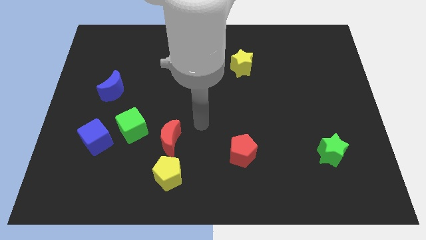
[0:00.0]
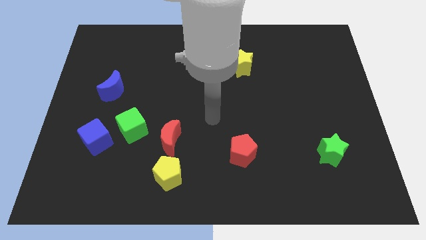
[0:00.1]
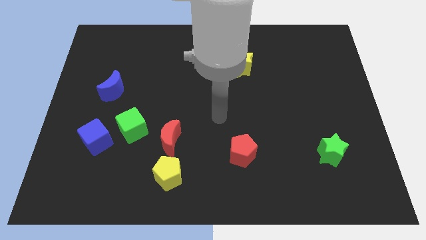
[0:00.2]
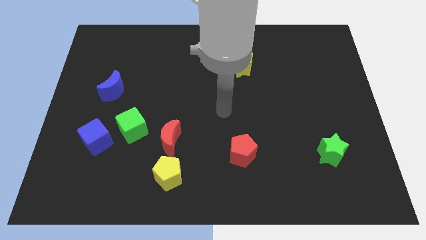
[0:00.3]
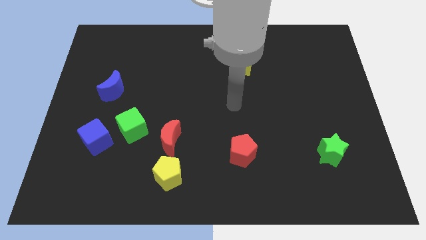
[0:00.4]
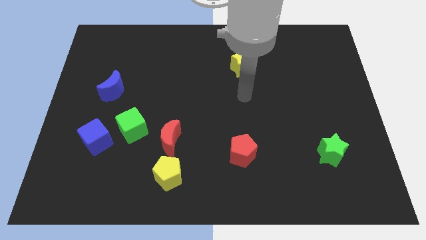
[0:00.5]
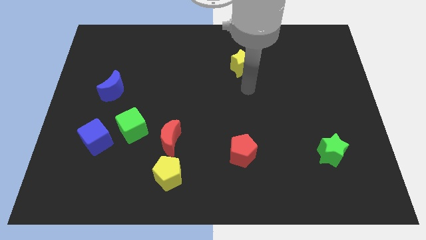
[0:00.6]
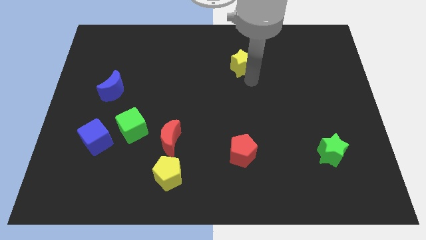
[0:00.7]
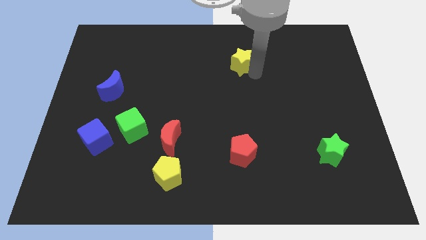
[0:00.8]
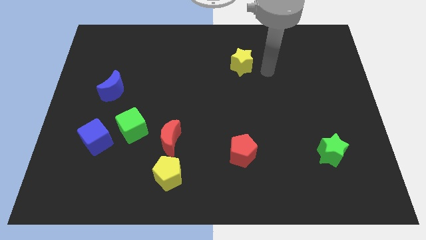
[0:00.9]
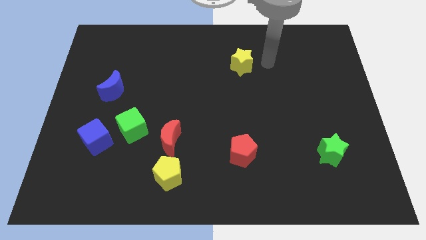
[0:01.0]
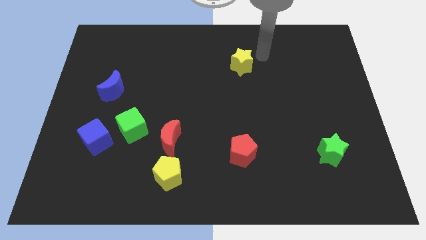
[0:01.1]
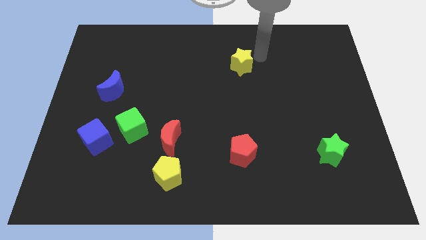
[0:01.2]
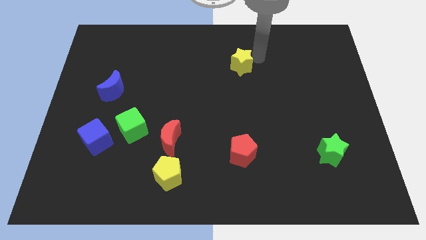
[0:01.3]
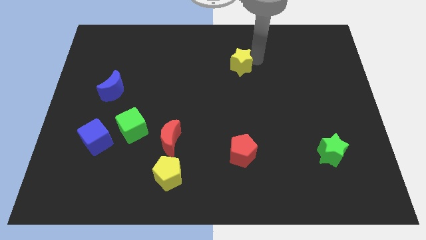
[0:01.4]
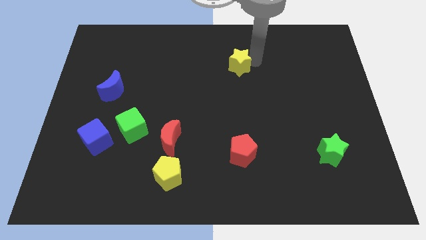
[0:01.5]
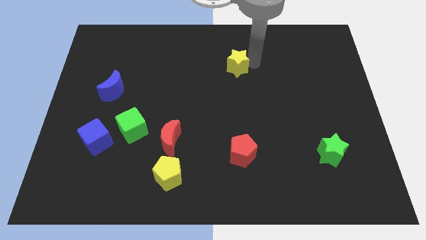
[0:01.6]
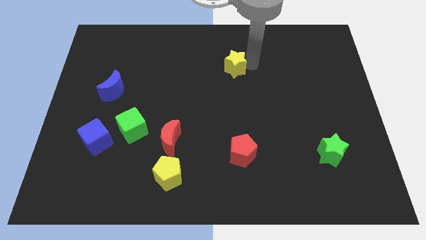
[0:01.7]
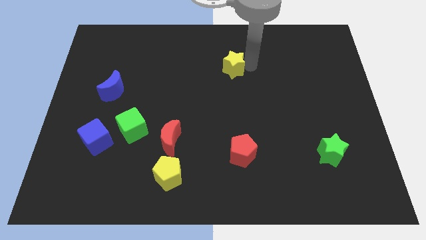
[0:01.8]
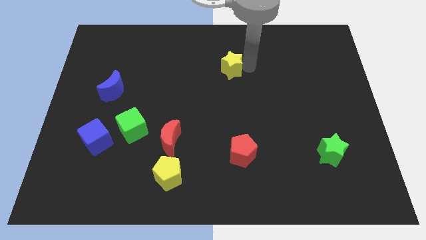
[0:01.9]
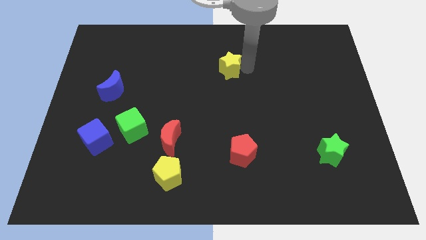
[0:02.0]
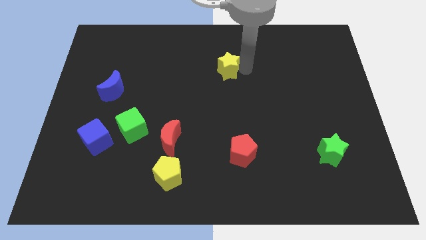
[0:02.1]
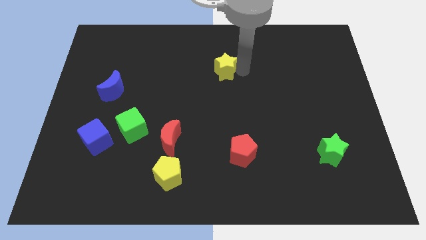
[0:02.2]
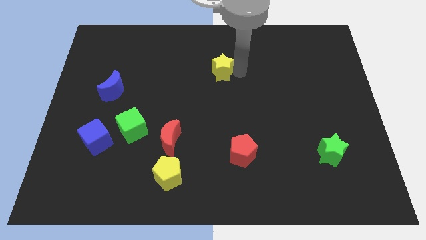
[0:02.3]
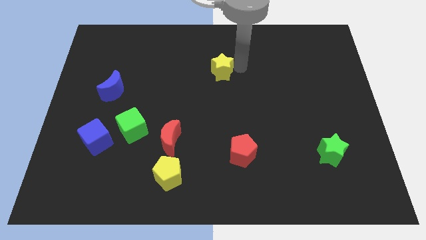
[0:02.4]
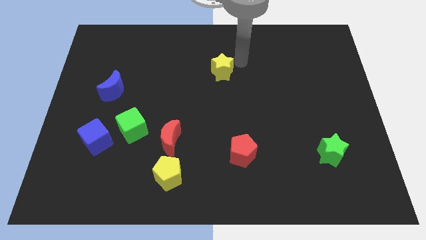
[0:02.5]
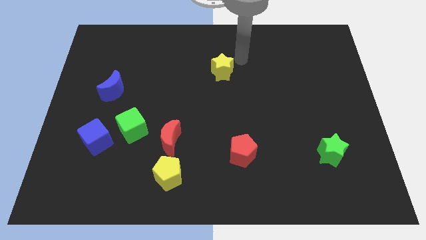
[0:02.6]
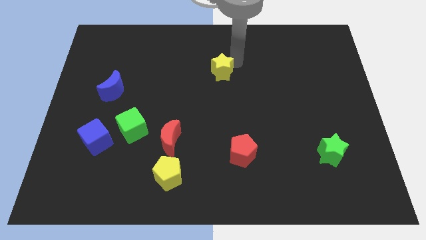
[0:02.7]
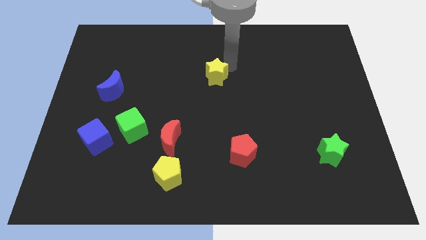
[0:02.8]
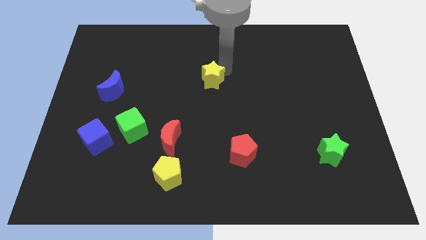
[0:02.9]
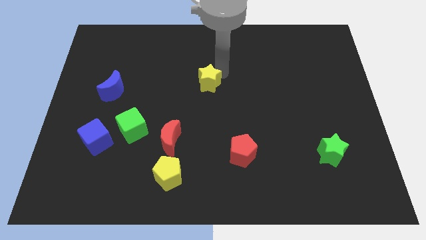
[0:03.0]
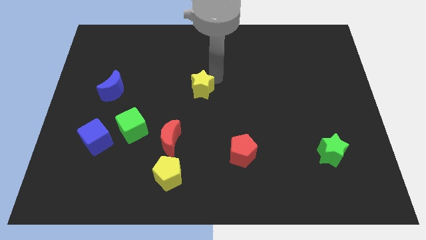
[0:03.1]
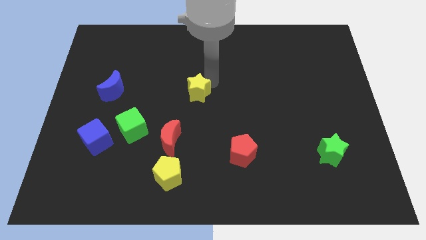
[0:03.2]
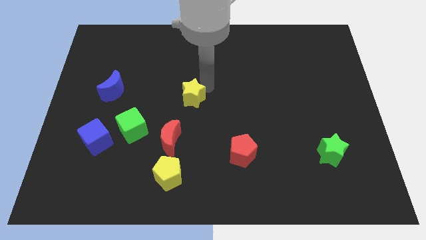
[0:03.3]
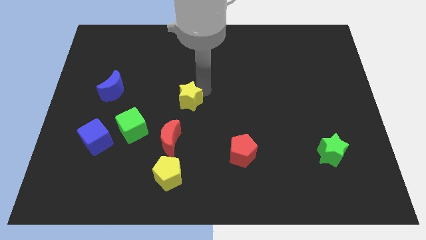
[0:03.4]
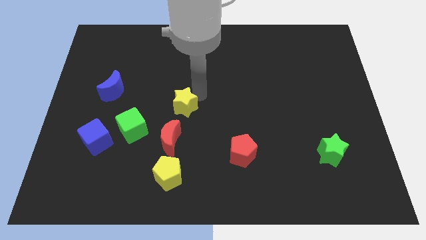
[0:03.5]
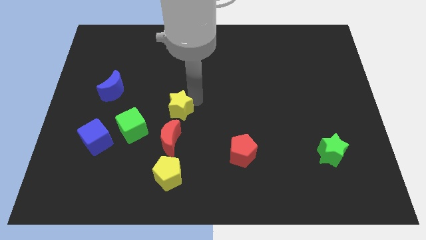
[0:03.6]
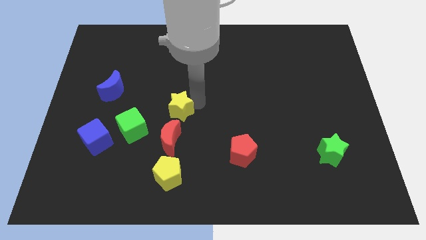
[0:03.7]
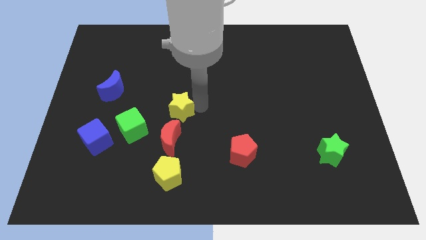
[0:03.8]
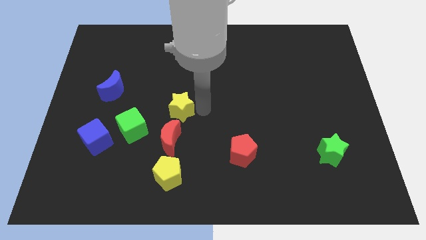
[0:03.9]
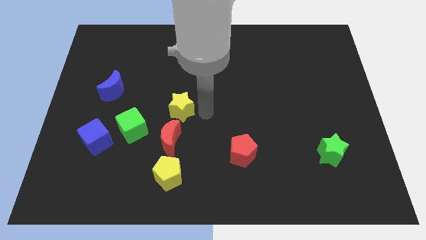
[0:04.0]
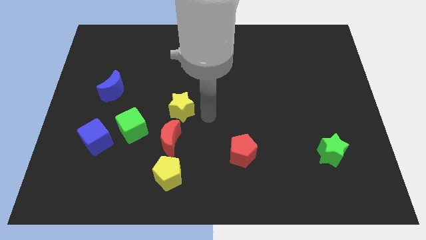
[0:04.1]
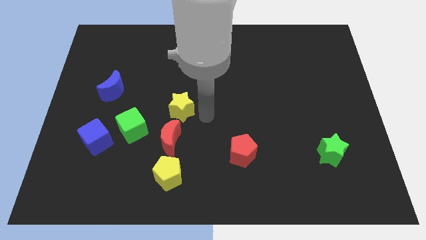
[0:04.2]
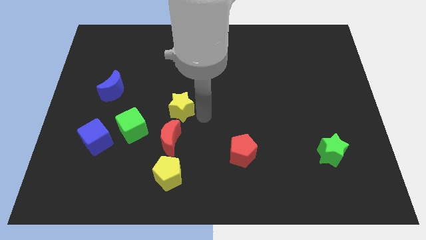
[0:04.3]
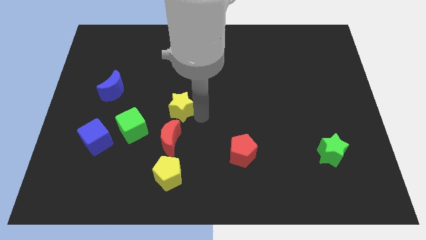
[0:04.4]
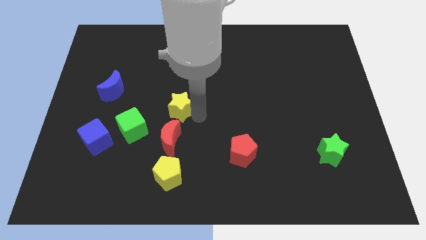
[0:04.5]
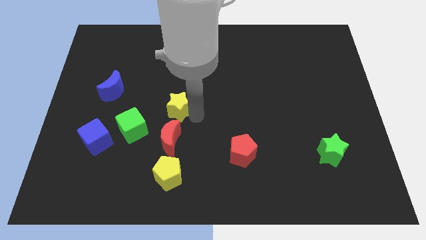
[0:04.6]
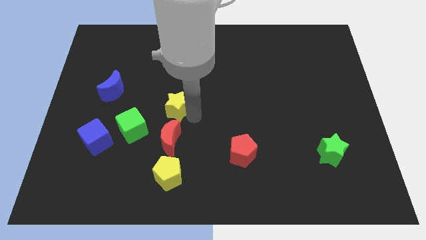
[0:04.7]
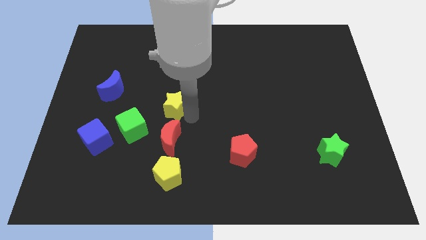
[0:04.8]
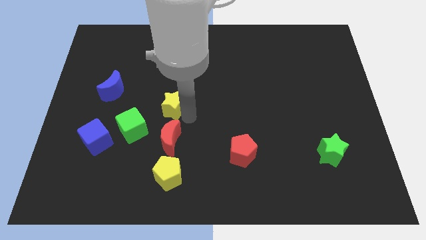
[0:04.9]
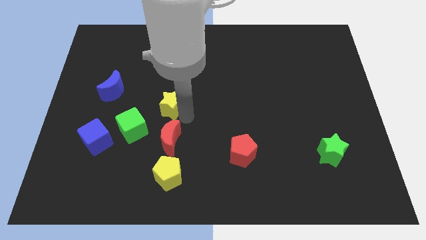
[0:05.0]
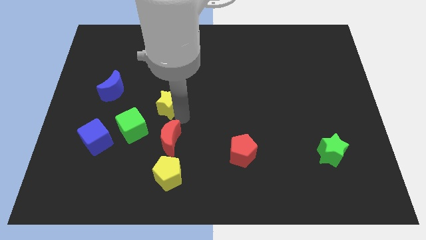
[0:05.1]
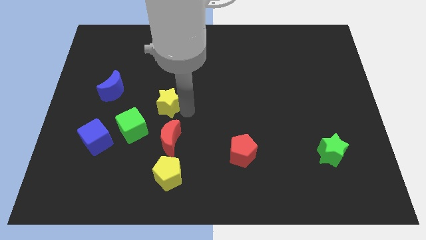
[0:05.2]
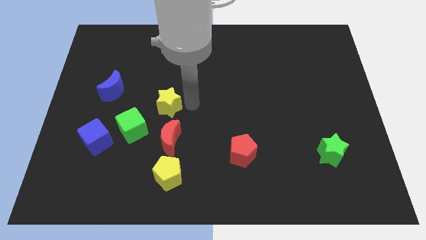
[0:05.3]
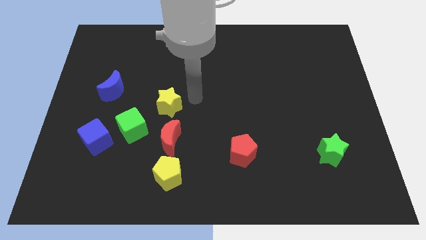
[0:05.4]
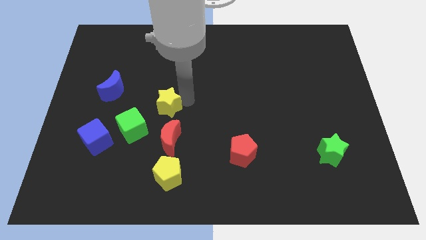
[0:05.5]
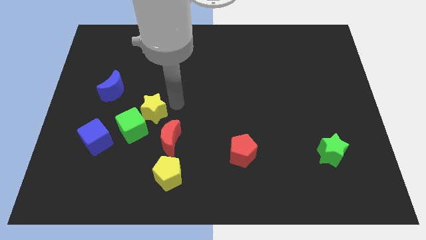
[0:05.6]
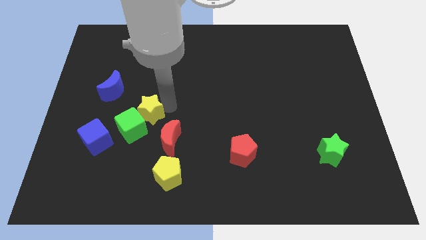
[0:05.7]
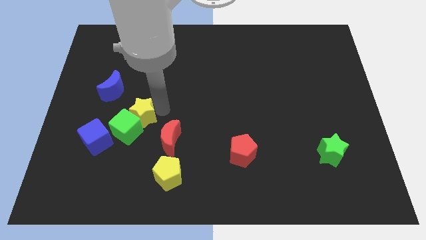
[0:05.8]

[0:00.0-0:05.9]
put the yellow star diagonally up and to the right of the blue cube

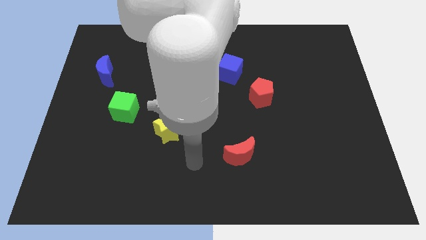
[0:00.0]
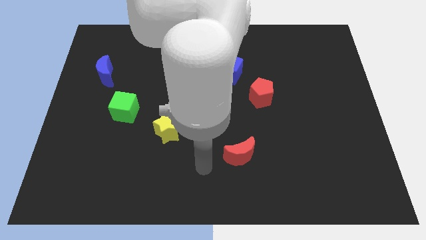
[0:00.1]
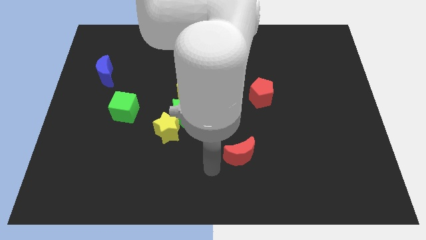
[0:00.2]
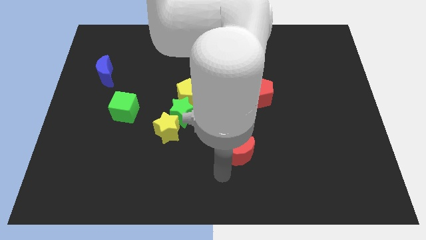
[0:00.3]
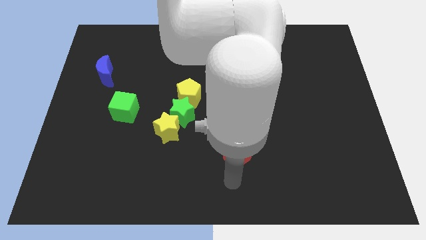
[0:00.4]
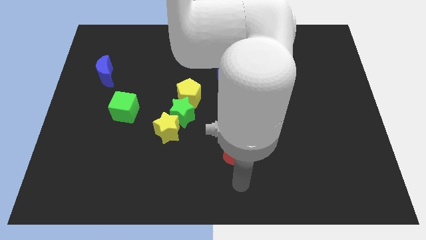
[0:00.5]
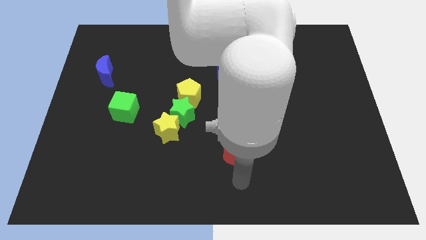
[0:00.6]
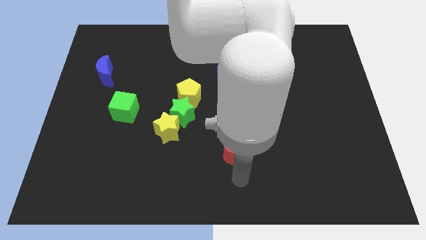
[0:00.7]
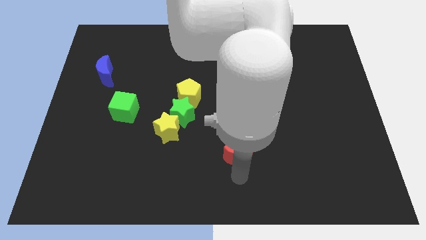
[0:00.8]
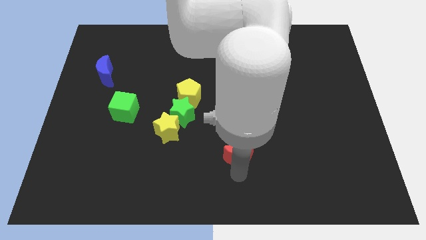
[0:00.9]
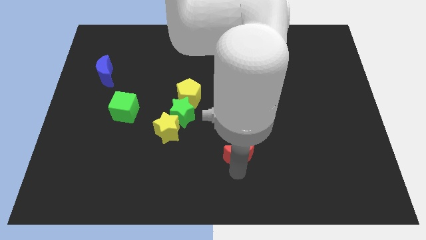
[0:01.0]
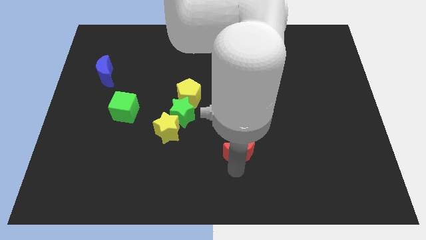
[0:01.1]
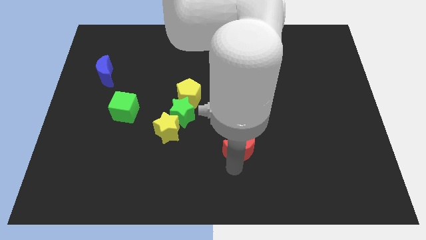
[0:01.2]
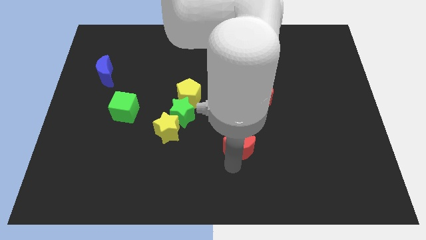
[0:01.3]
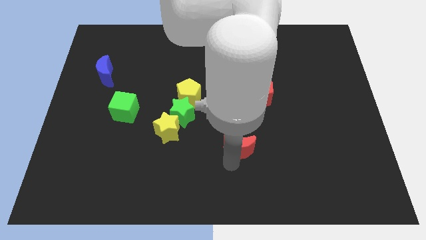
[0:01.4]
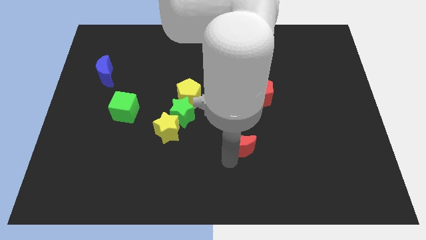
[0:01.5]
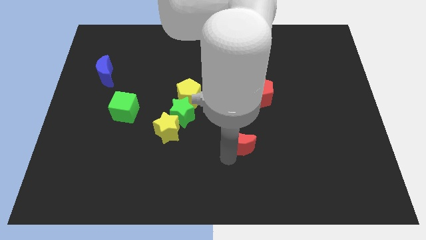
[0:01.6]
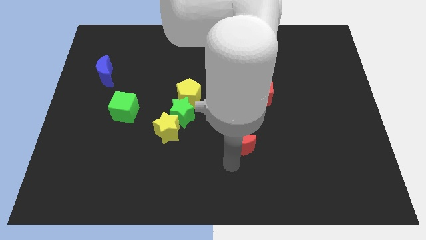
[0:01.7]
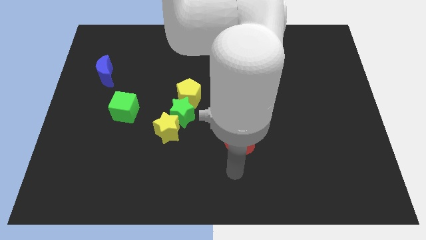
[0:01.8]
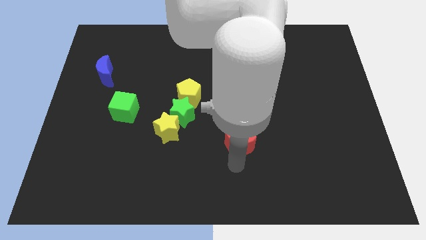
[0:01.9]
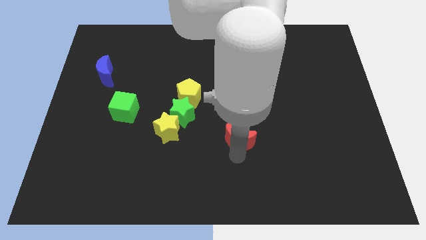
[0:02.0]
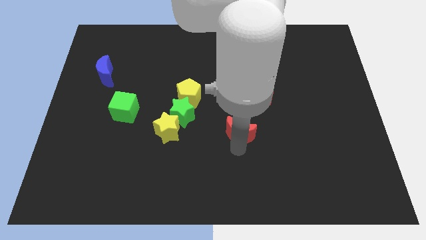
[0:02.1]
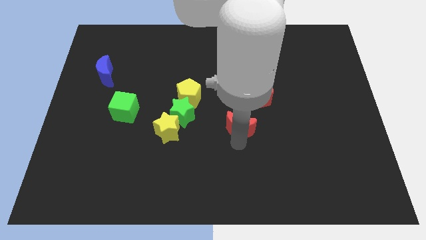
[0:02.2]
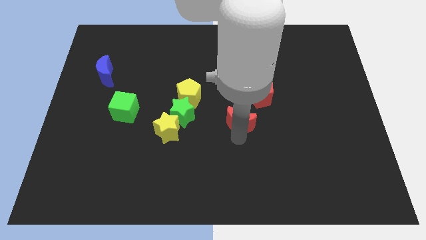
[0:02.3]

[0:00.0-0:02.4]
slide the red moon below the blue cube
